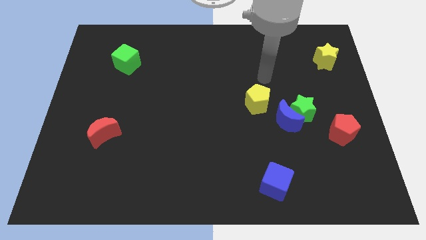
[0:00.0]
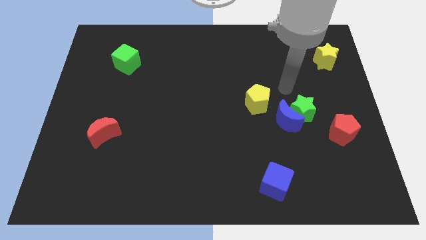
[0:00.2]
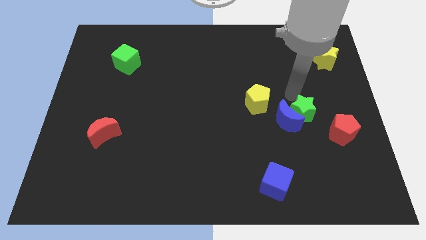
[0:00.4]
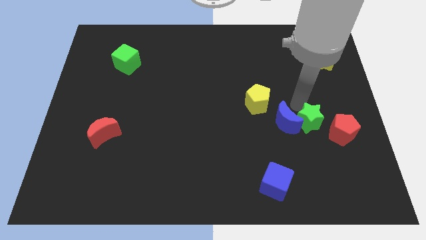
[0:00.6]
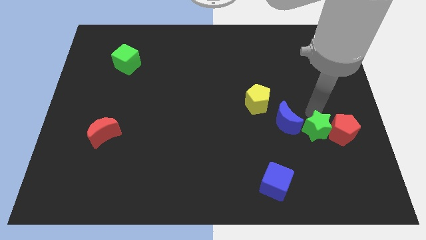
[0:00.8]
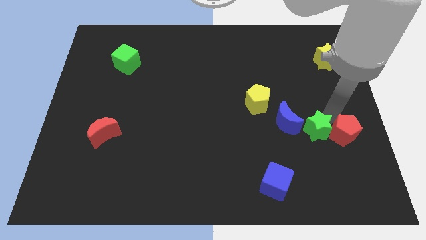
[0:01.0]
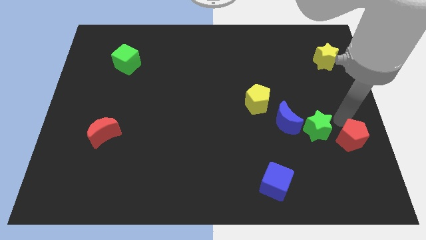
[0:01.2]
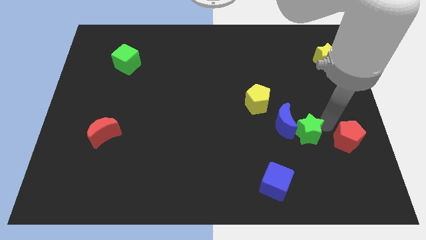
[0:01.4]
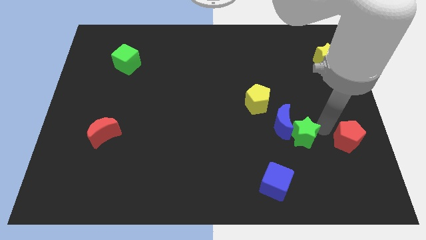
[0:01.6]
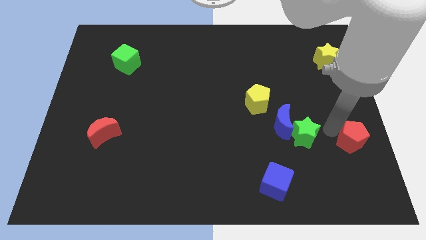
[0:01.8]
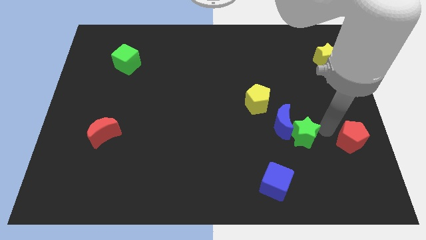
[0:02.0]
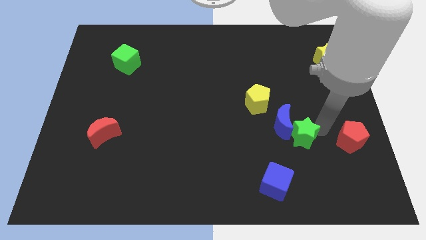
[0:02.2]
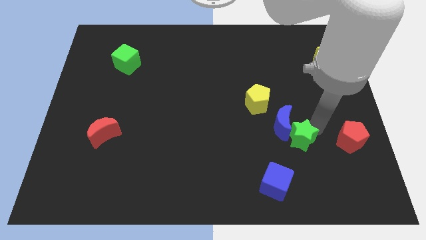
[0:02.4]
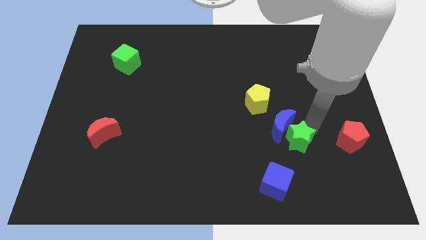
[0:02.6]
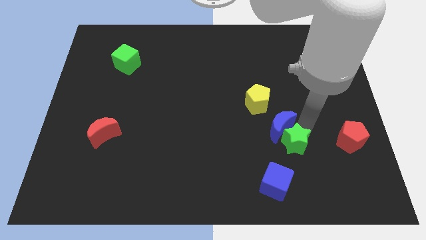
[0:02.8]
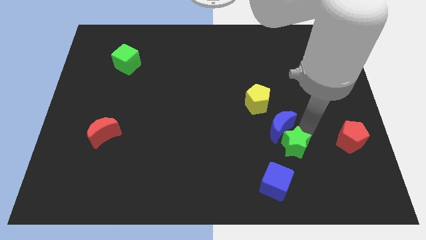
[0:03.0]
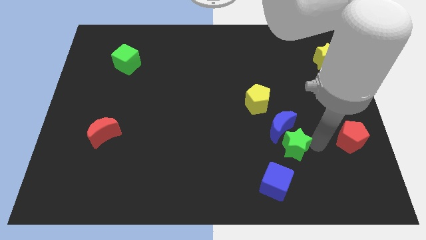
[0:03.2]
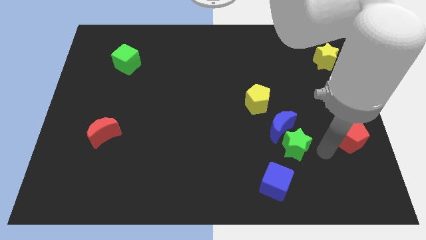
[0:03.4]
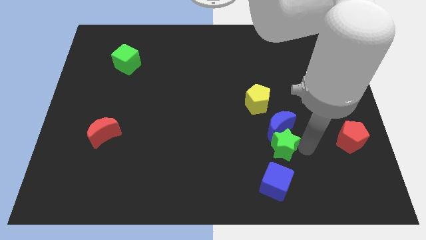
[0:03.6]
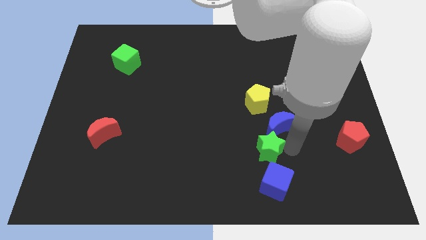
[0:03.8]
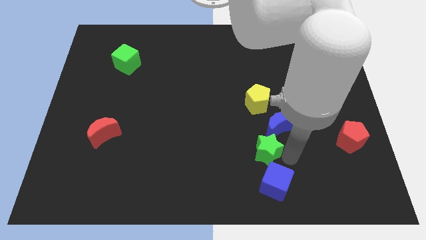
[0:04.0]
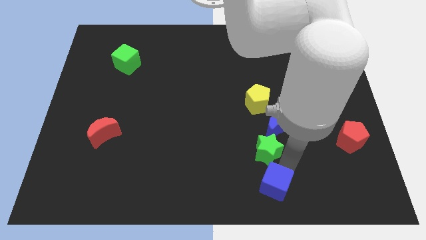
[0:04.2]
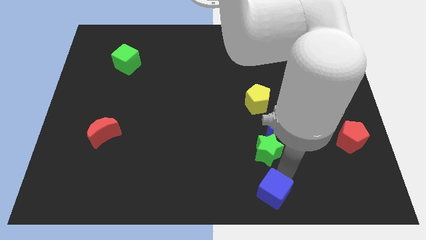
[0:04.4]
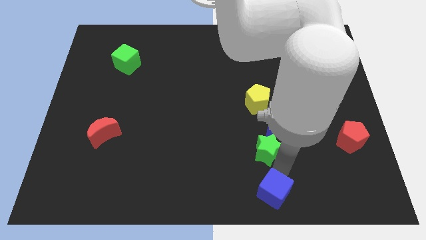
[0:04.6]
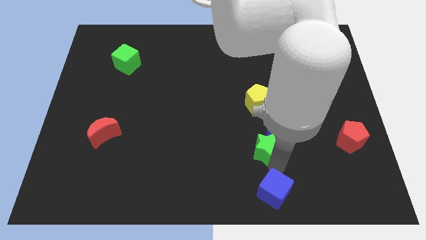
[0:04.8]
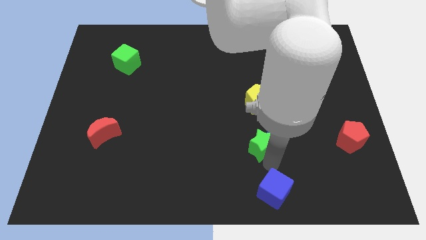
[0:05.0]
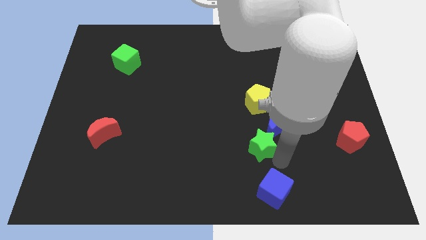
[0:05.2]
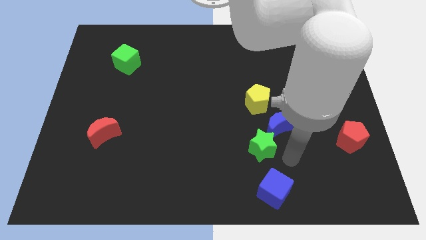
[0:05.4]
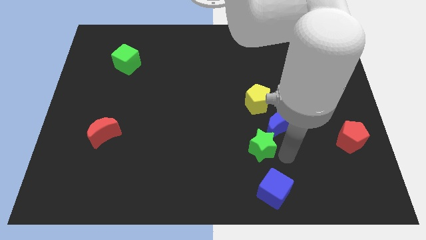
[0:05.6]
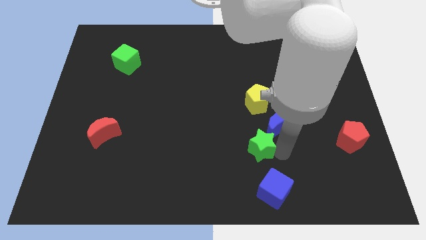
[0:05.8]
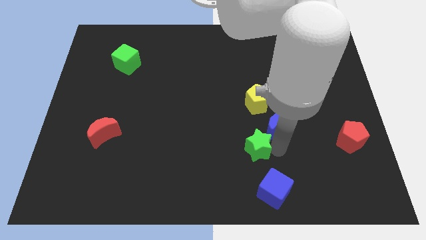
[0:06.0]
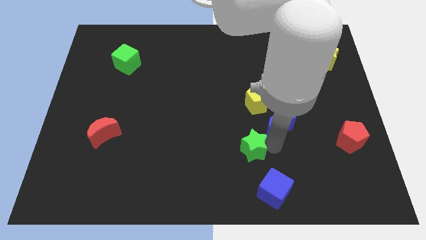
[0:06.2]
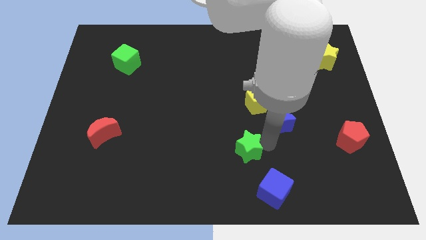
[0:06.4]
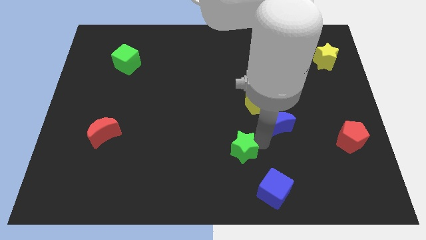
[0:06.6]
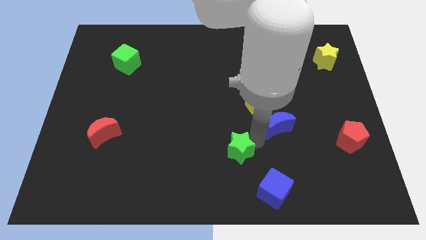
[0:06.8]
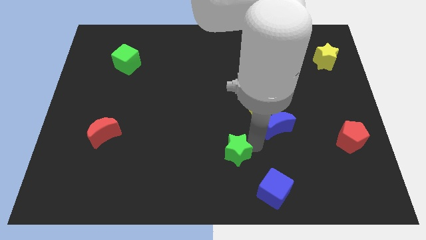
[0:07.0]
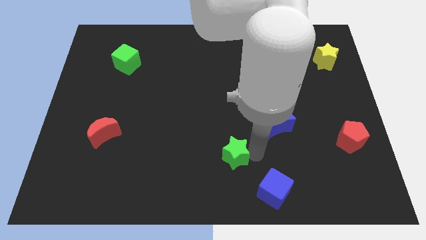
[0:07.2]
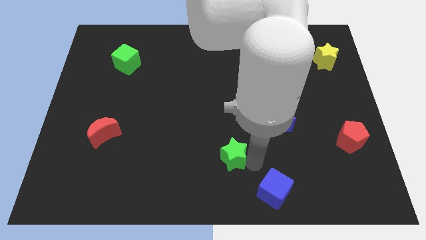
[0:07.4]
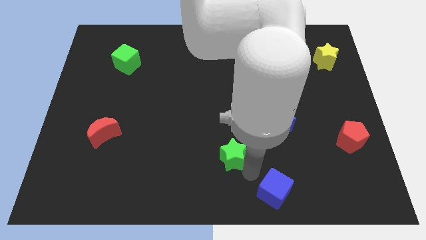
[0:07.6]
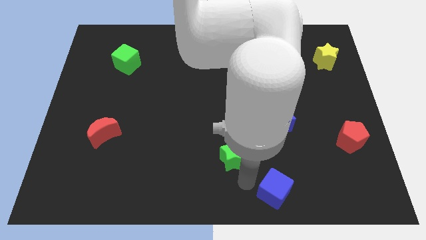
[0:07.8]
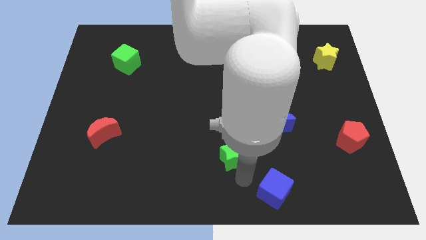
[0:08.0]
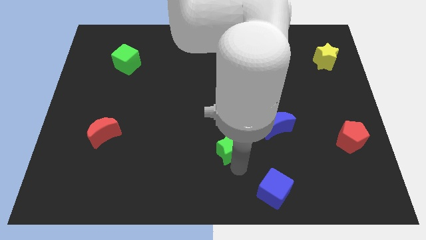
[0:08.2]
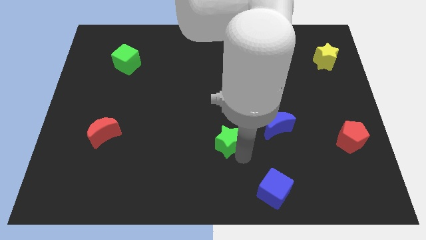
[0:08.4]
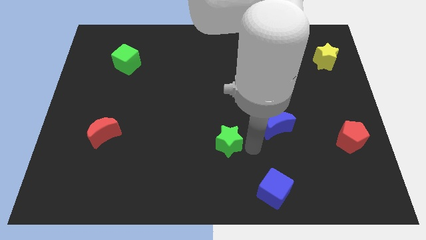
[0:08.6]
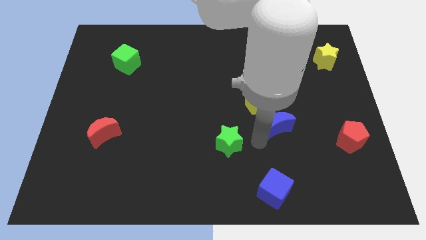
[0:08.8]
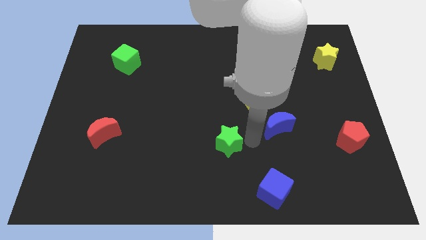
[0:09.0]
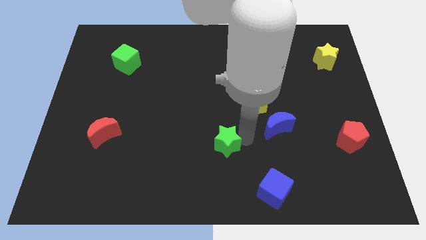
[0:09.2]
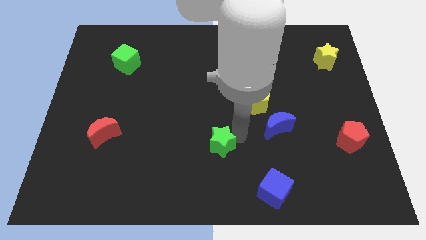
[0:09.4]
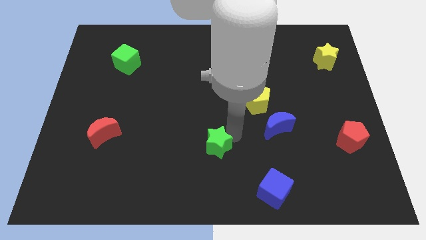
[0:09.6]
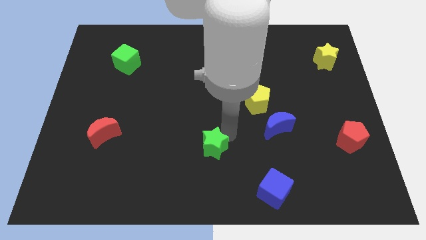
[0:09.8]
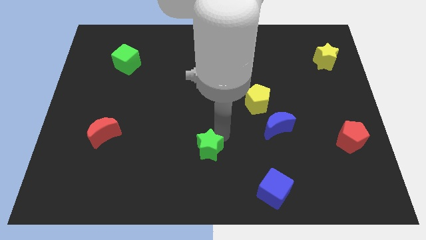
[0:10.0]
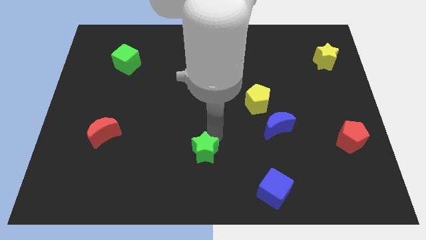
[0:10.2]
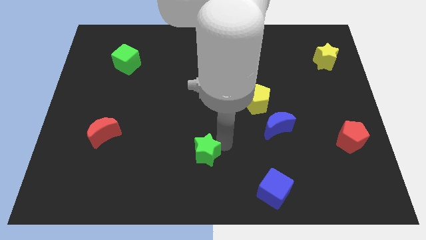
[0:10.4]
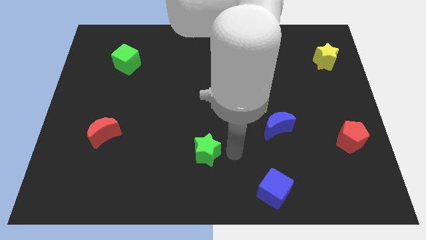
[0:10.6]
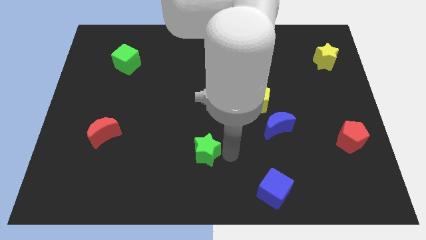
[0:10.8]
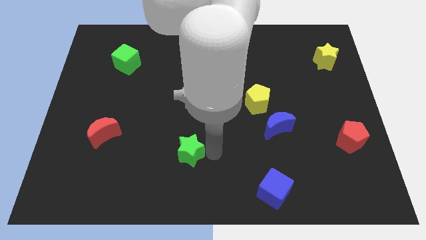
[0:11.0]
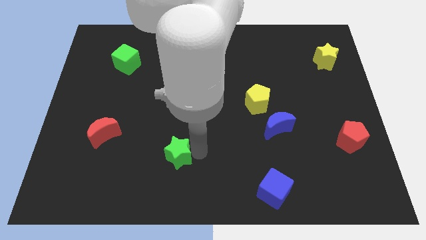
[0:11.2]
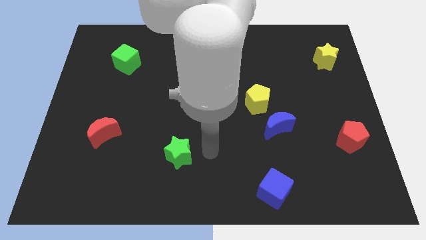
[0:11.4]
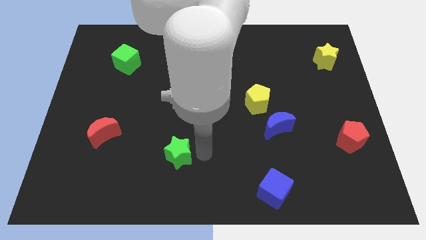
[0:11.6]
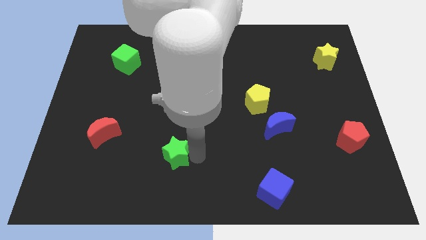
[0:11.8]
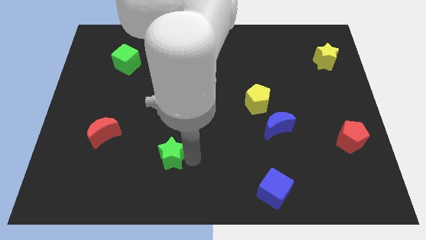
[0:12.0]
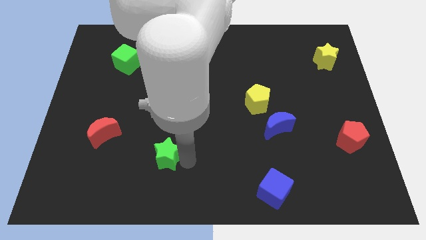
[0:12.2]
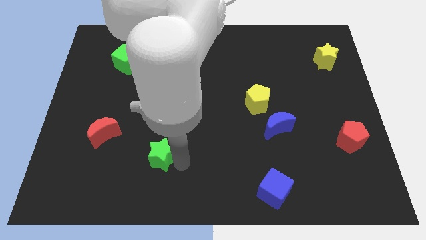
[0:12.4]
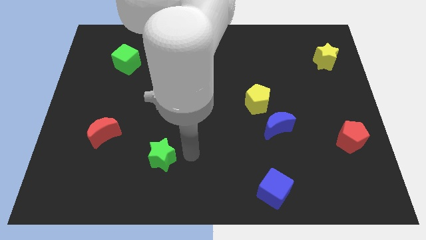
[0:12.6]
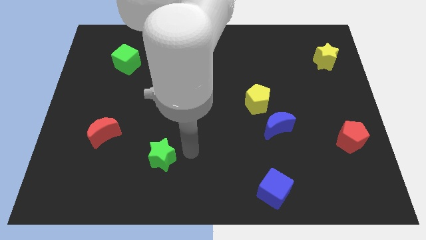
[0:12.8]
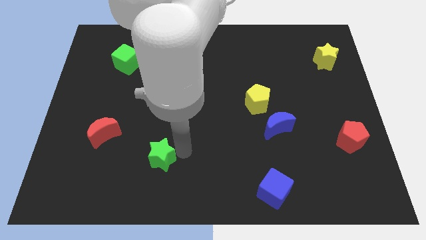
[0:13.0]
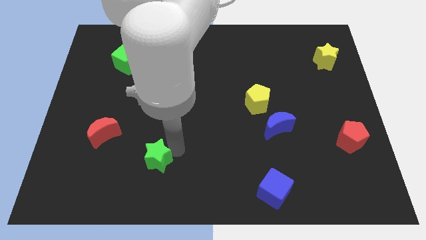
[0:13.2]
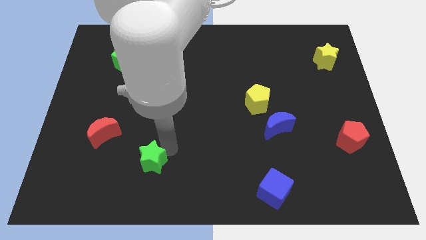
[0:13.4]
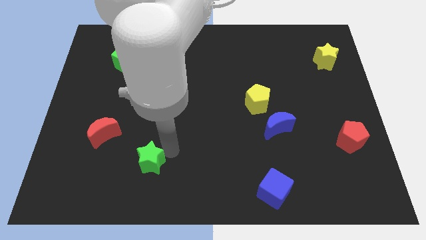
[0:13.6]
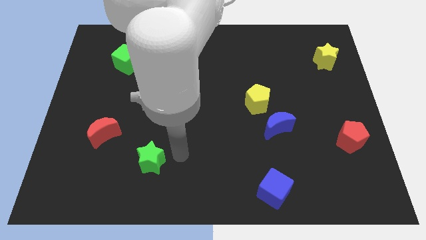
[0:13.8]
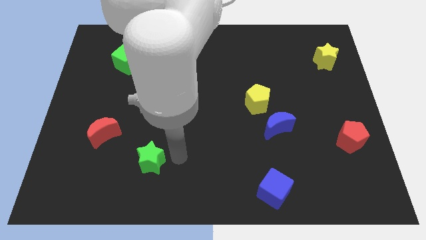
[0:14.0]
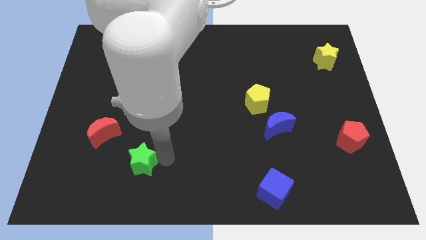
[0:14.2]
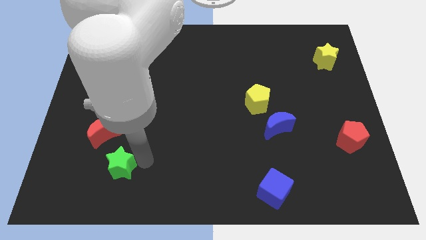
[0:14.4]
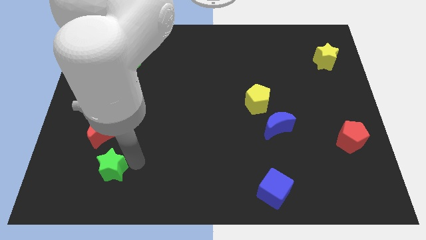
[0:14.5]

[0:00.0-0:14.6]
push the green star to the bottom of the red moon
